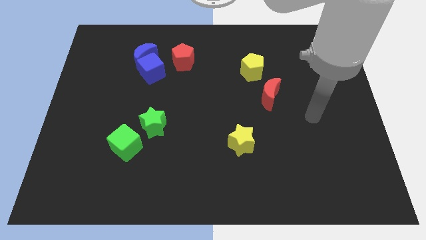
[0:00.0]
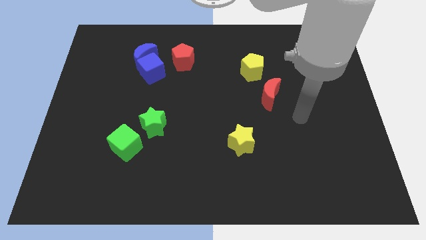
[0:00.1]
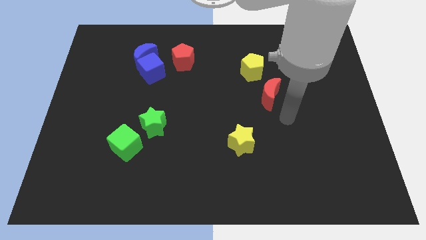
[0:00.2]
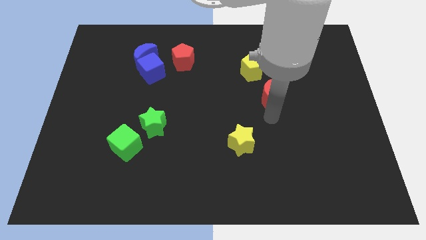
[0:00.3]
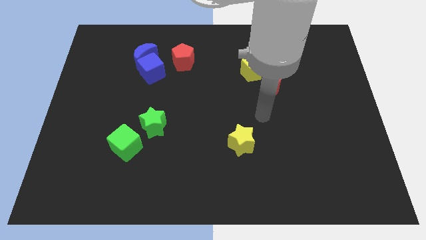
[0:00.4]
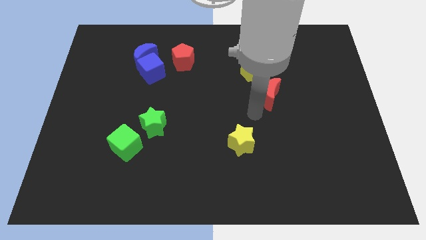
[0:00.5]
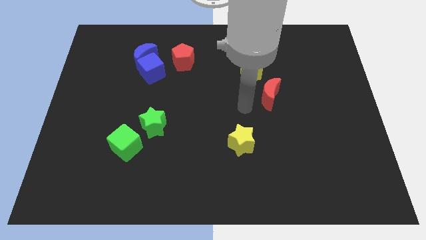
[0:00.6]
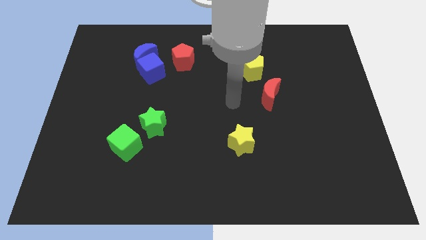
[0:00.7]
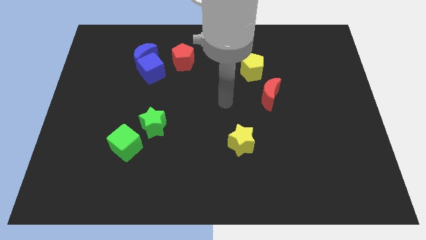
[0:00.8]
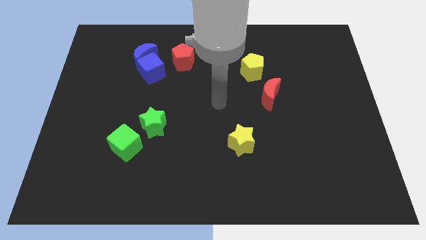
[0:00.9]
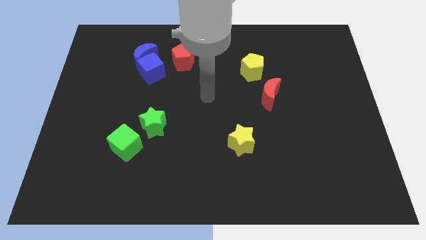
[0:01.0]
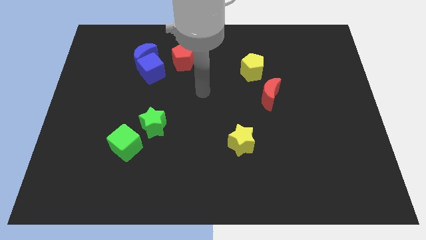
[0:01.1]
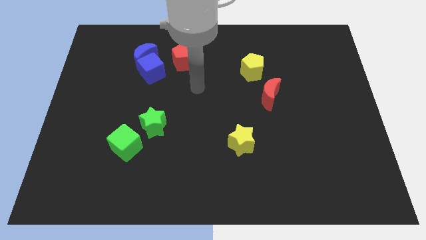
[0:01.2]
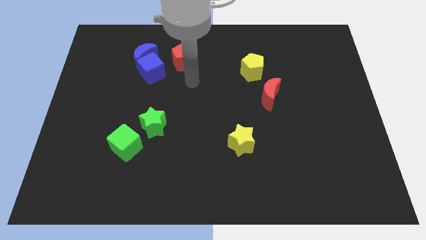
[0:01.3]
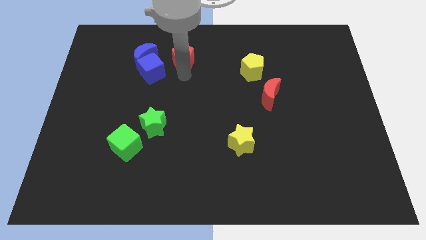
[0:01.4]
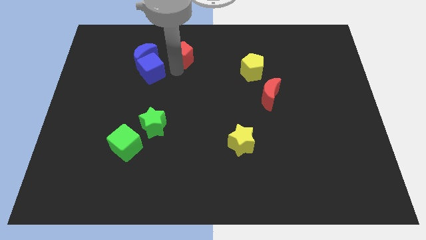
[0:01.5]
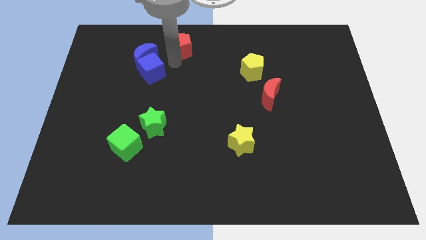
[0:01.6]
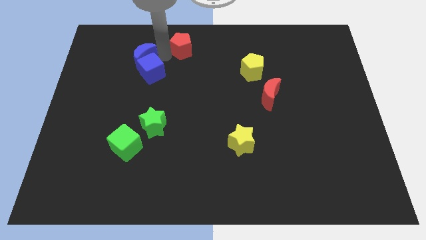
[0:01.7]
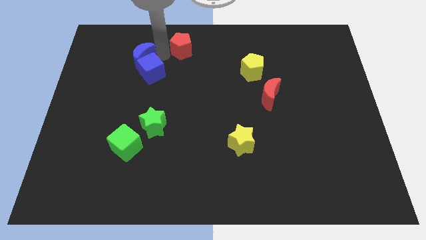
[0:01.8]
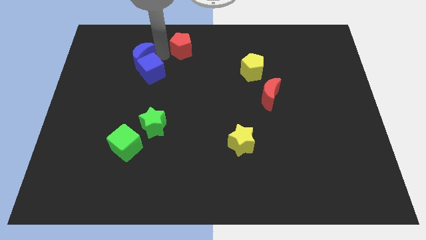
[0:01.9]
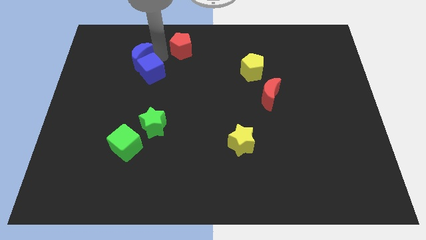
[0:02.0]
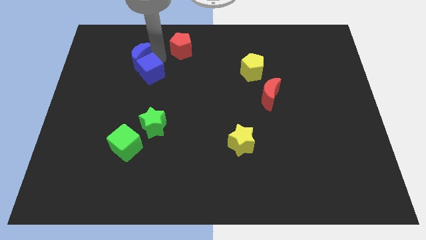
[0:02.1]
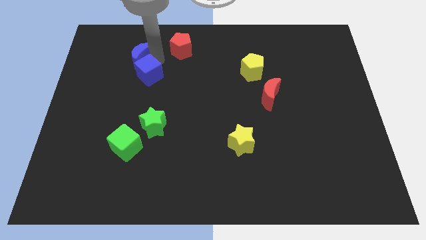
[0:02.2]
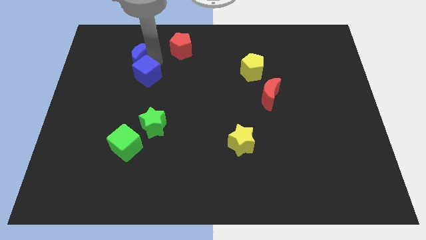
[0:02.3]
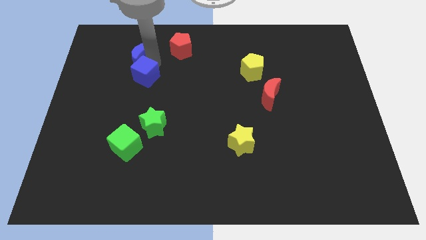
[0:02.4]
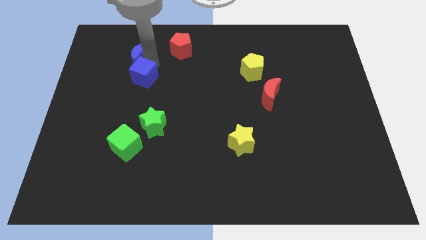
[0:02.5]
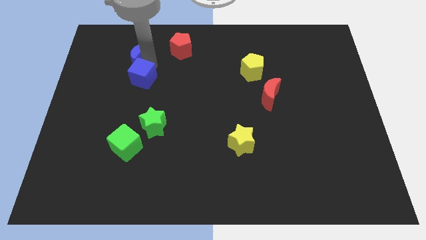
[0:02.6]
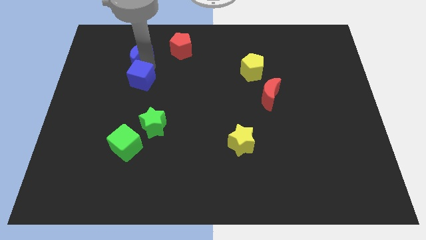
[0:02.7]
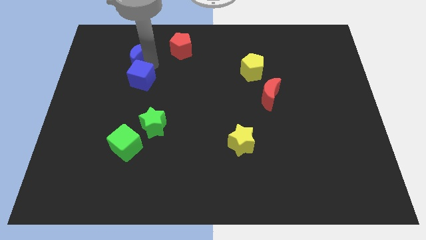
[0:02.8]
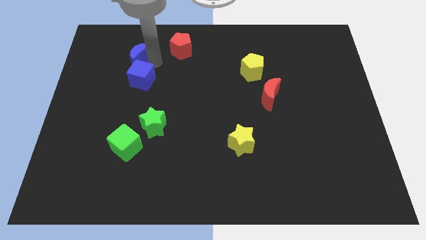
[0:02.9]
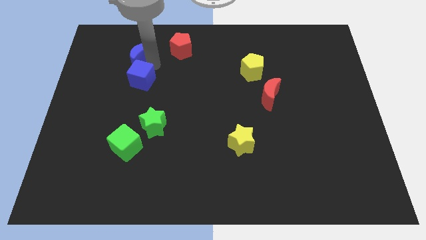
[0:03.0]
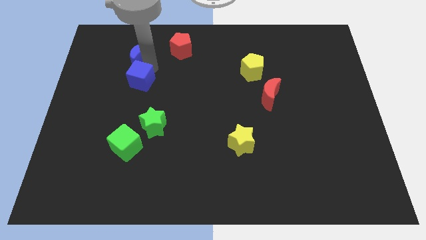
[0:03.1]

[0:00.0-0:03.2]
pull the blue cube apart from the blue moon and red pentagon

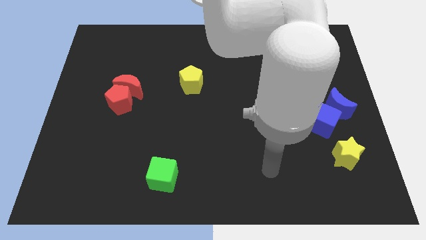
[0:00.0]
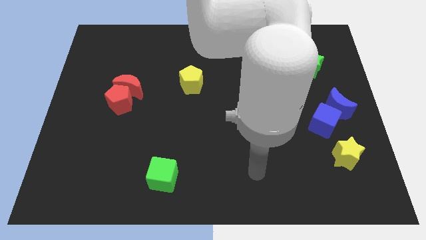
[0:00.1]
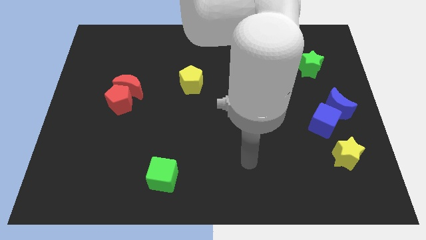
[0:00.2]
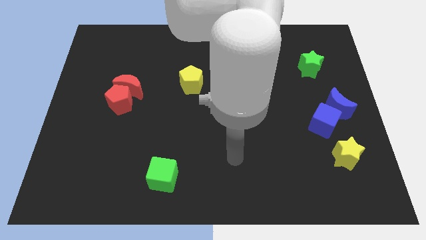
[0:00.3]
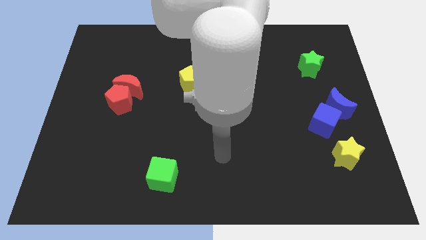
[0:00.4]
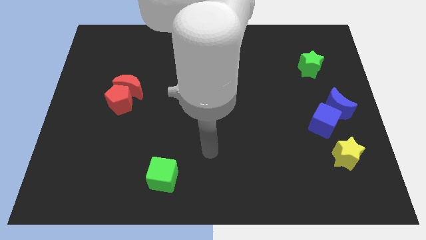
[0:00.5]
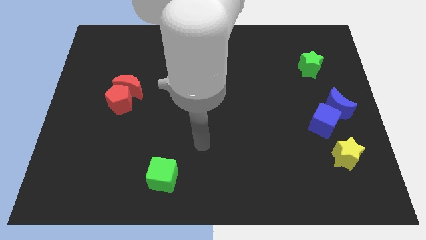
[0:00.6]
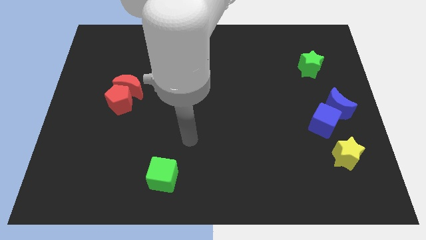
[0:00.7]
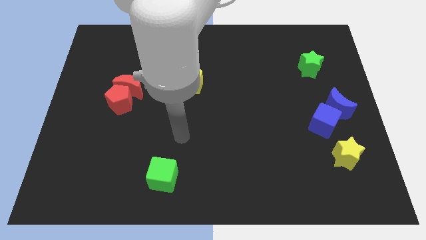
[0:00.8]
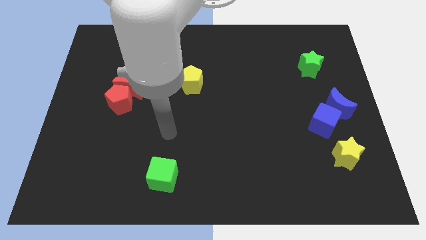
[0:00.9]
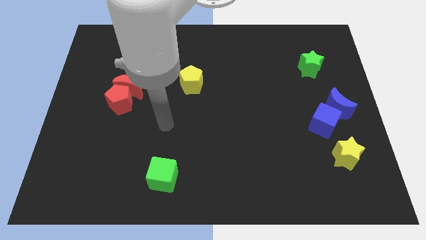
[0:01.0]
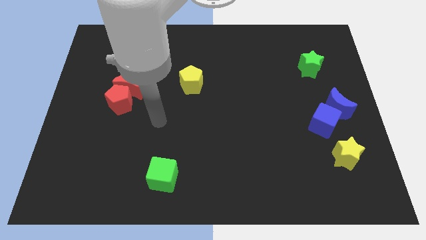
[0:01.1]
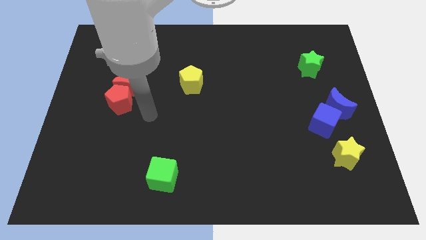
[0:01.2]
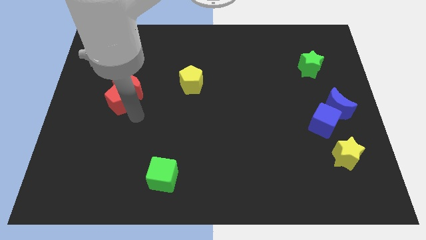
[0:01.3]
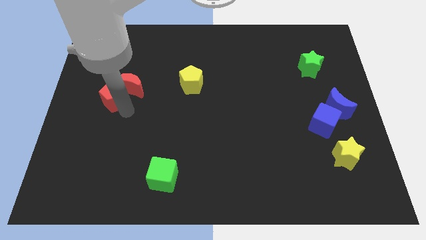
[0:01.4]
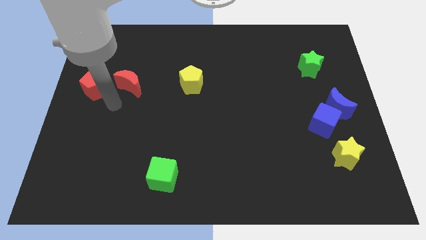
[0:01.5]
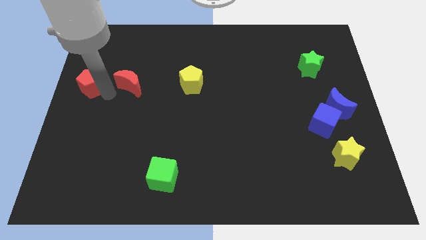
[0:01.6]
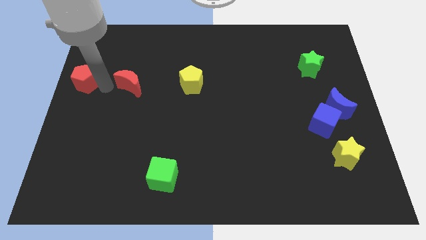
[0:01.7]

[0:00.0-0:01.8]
pull the red moon apart from the red pentagon

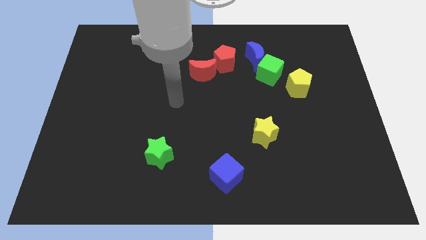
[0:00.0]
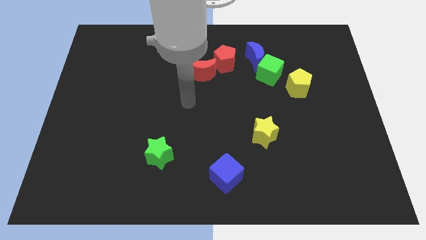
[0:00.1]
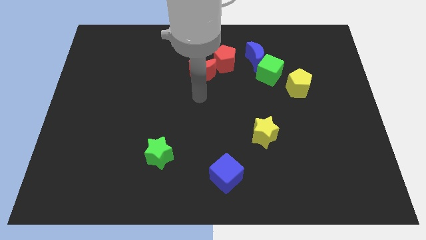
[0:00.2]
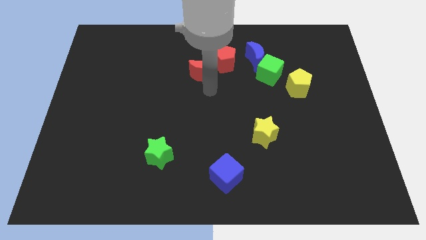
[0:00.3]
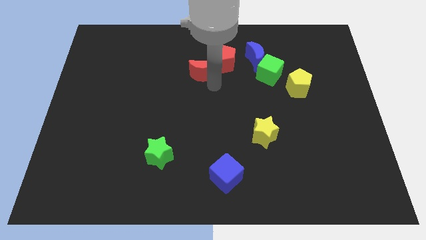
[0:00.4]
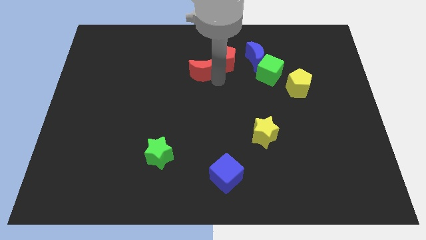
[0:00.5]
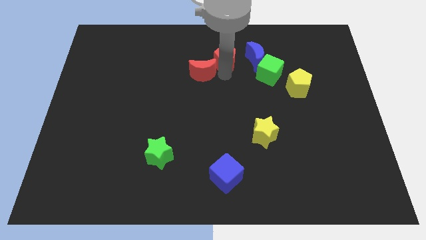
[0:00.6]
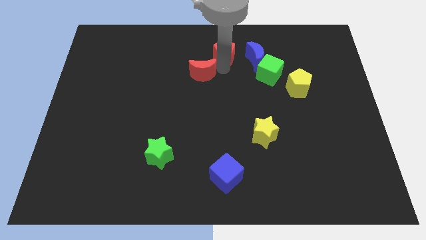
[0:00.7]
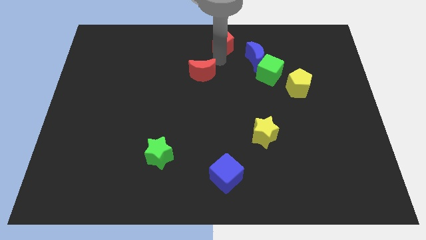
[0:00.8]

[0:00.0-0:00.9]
separate the red moon from the red pentagon

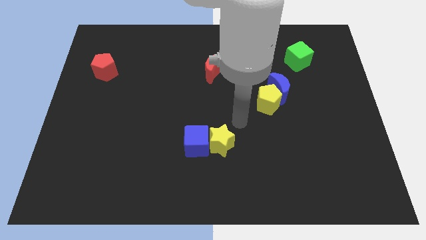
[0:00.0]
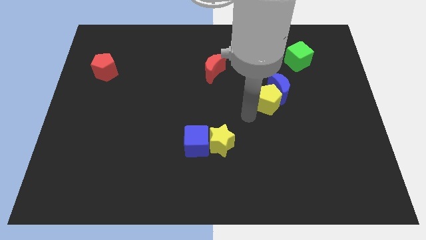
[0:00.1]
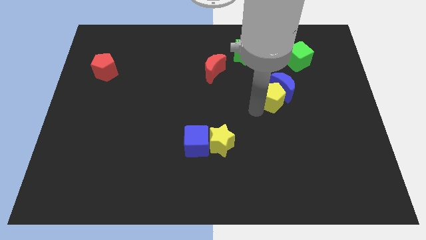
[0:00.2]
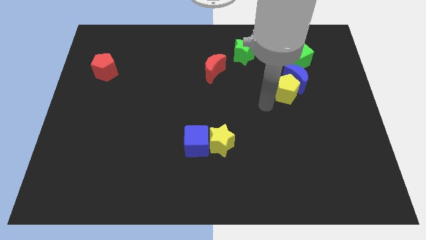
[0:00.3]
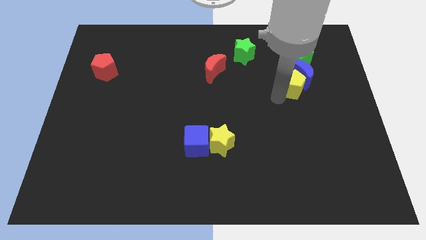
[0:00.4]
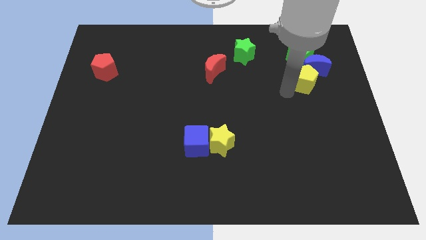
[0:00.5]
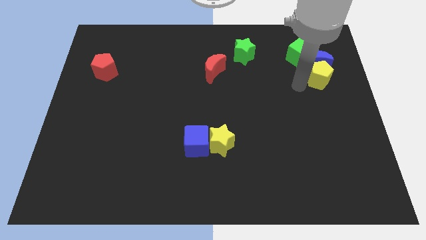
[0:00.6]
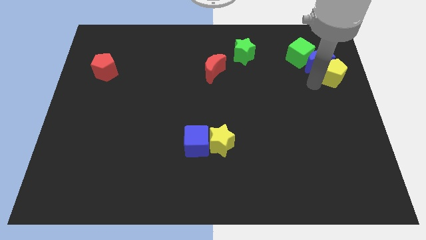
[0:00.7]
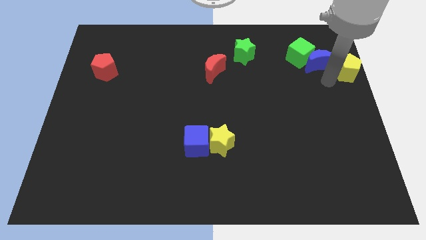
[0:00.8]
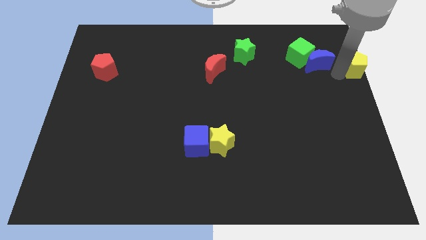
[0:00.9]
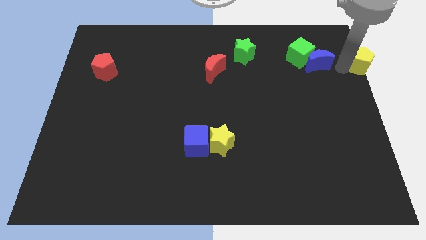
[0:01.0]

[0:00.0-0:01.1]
pull the blue moon apart from the yellow pentagon

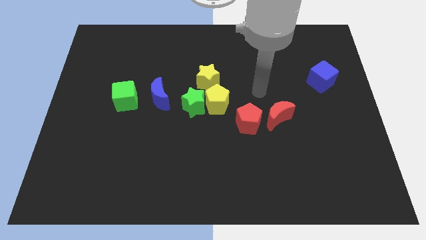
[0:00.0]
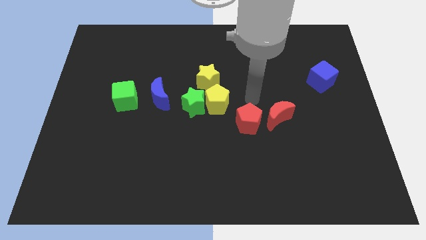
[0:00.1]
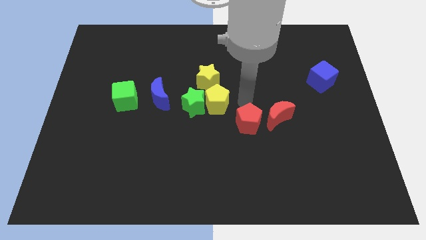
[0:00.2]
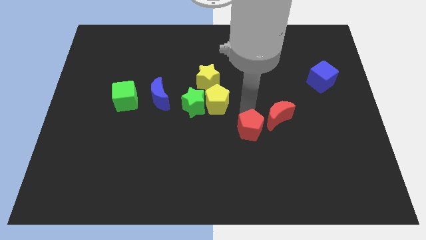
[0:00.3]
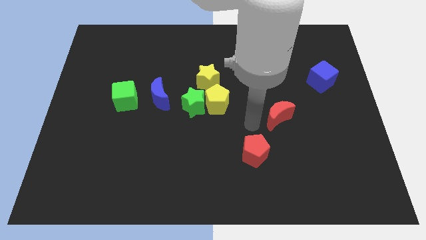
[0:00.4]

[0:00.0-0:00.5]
move the red moon away from the red pentagon

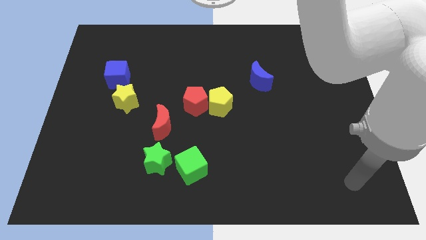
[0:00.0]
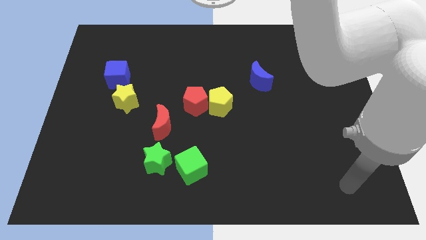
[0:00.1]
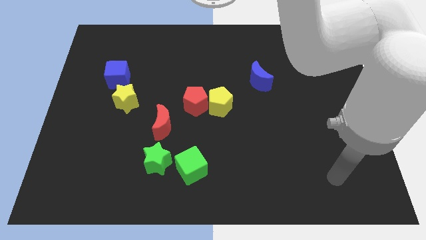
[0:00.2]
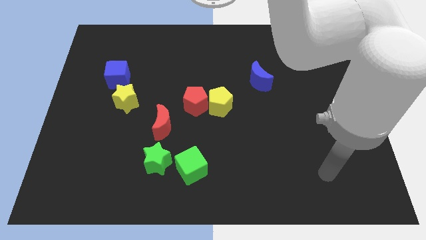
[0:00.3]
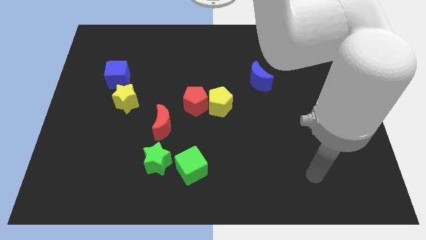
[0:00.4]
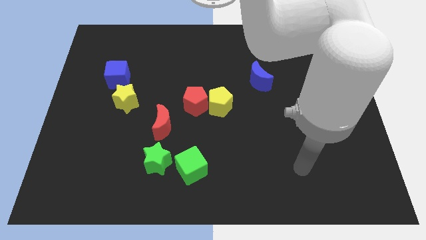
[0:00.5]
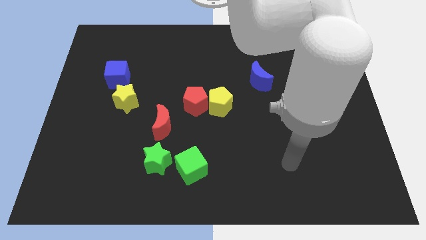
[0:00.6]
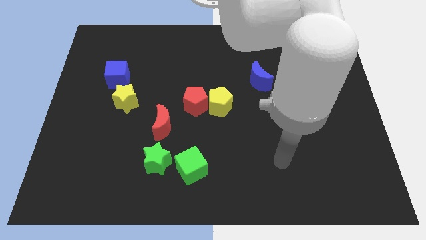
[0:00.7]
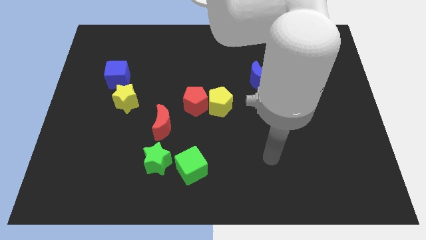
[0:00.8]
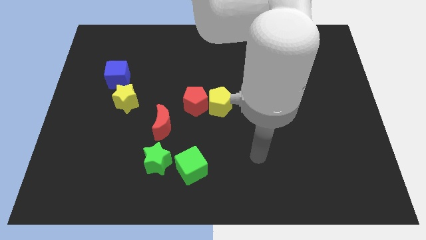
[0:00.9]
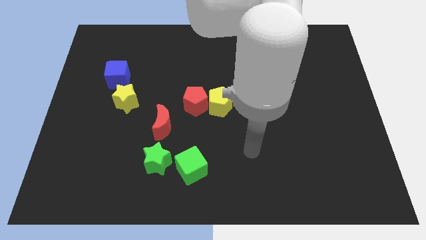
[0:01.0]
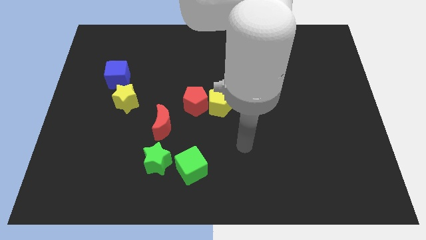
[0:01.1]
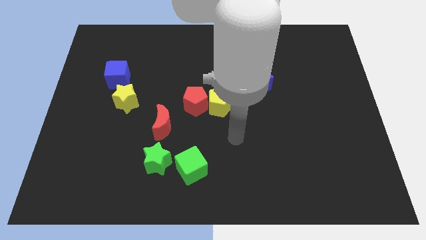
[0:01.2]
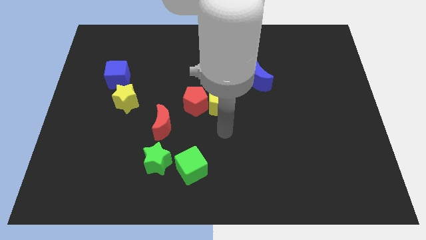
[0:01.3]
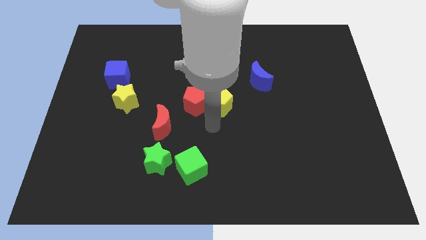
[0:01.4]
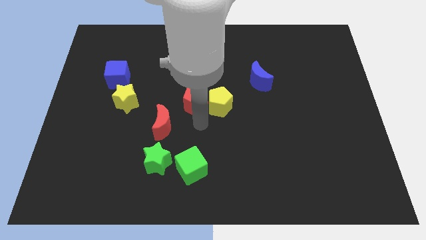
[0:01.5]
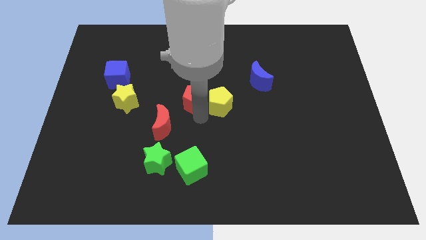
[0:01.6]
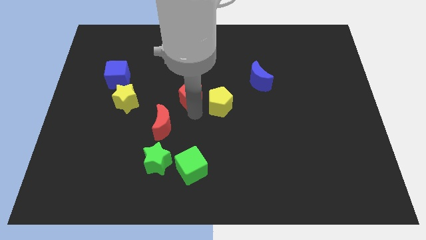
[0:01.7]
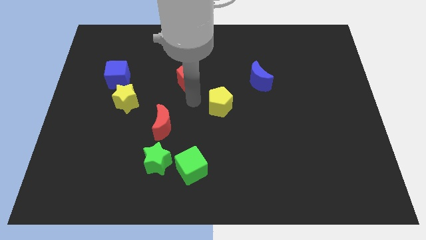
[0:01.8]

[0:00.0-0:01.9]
pull the yellow pentagon apart from the red pentagon
